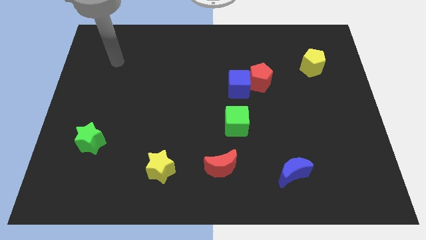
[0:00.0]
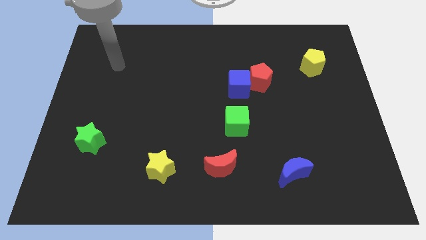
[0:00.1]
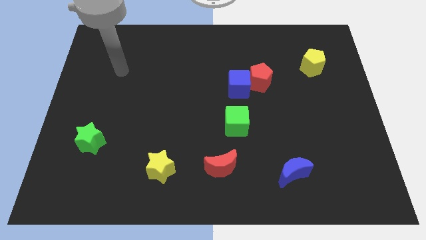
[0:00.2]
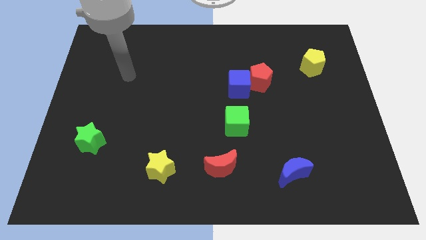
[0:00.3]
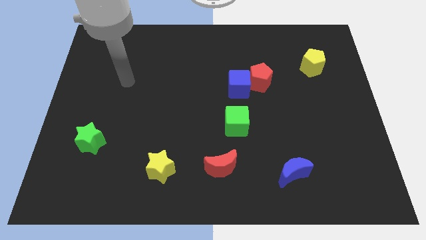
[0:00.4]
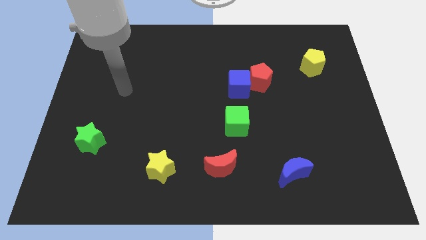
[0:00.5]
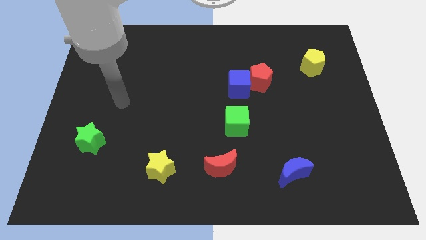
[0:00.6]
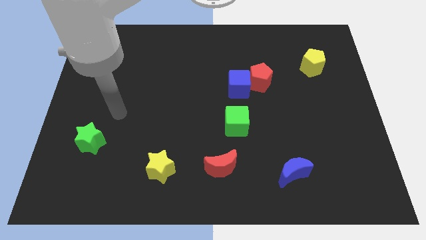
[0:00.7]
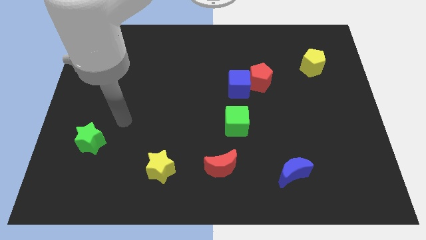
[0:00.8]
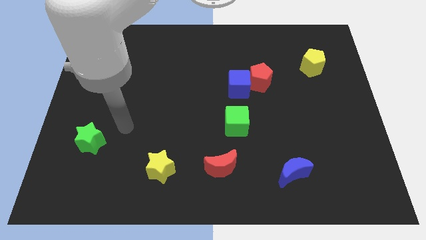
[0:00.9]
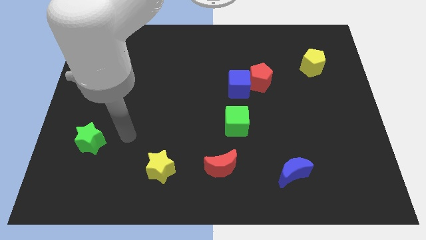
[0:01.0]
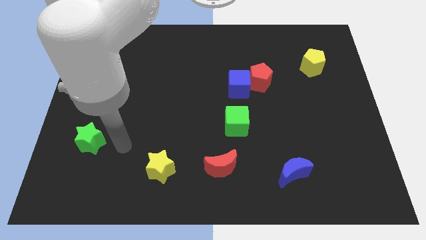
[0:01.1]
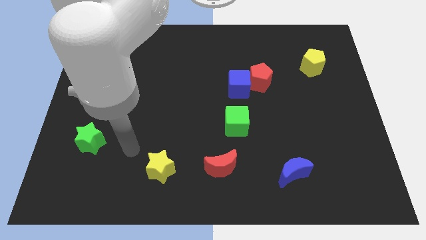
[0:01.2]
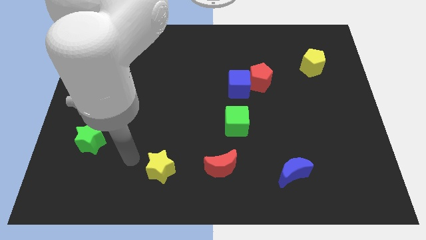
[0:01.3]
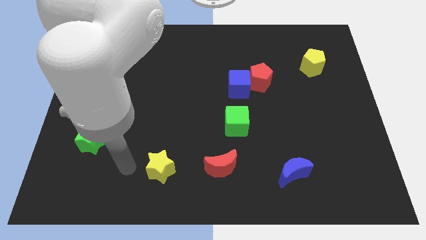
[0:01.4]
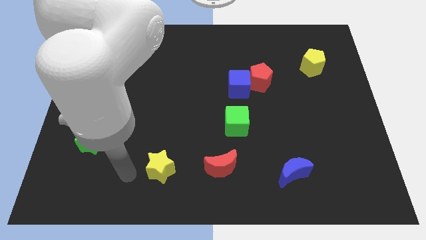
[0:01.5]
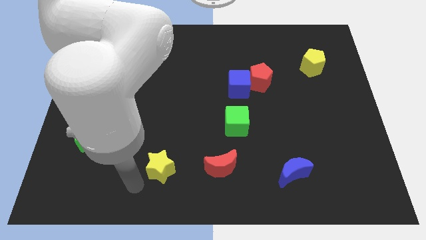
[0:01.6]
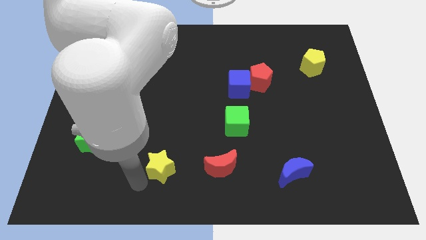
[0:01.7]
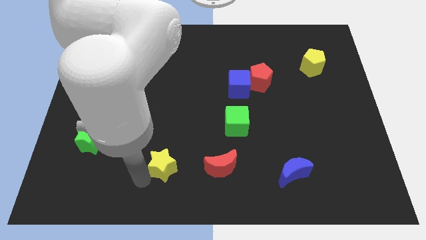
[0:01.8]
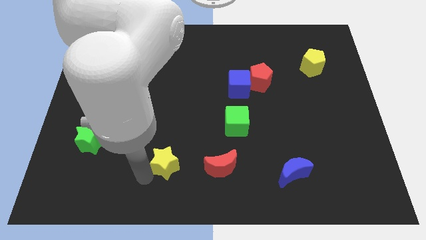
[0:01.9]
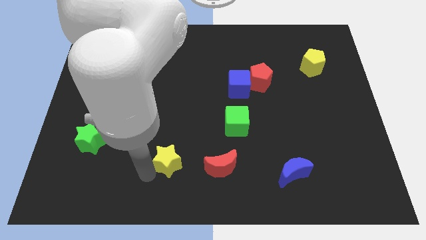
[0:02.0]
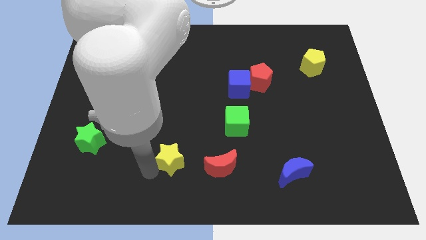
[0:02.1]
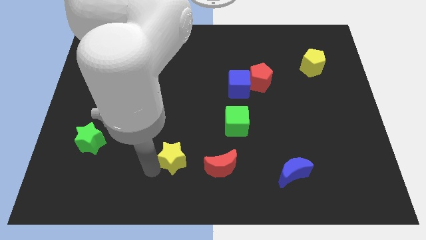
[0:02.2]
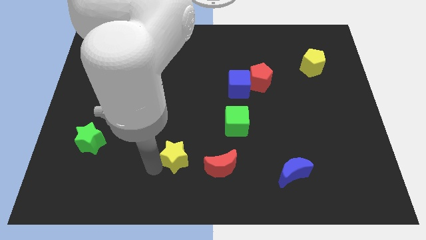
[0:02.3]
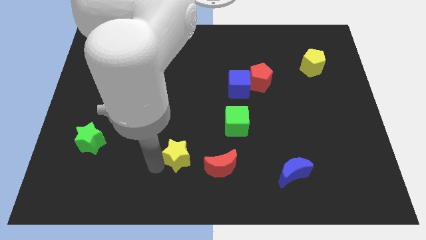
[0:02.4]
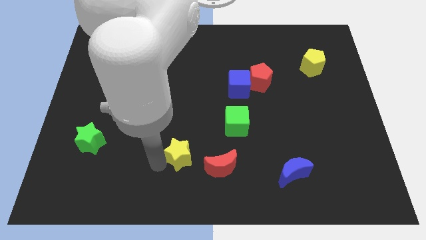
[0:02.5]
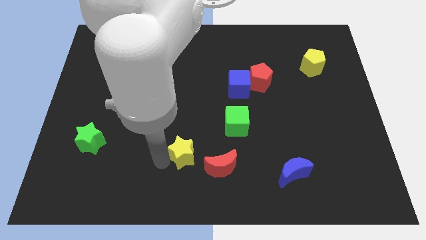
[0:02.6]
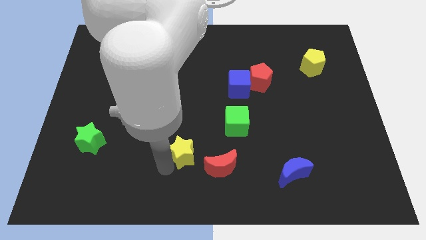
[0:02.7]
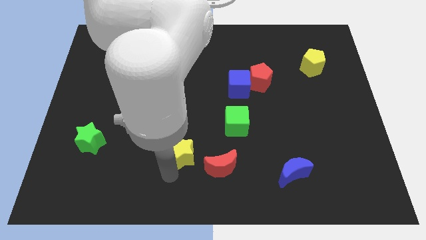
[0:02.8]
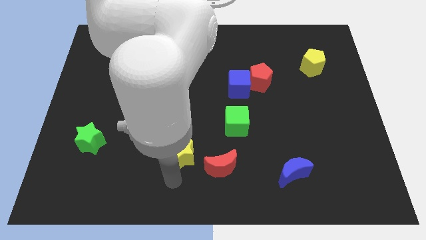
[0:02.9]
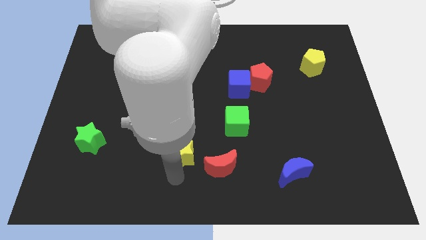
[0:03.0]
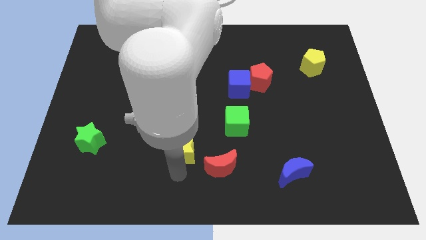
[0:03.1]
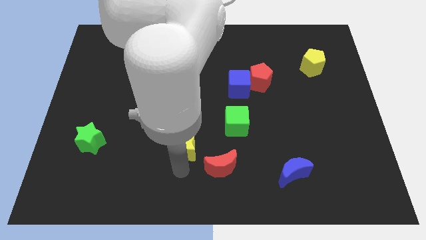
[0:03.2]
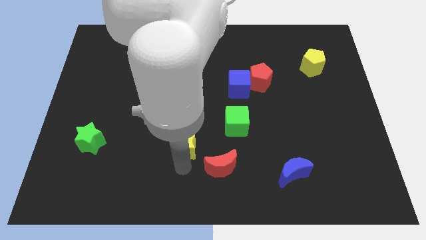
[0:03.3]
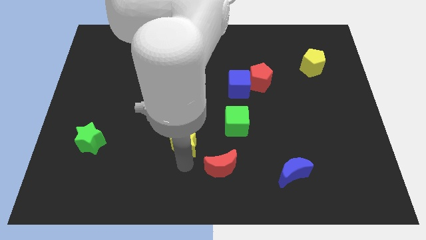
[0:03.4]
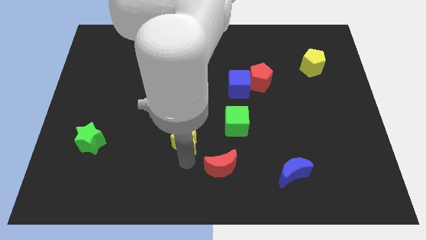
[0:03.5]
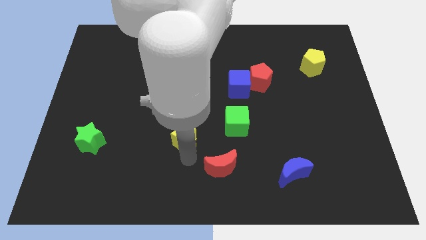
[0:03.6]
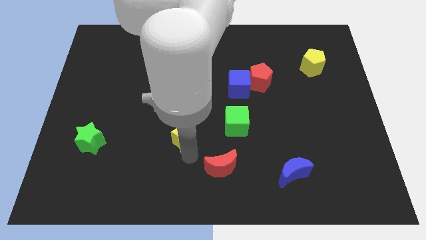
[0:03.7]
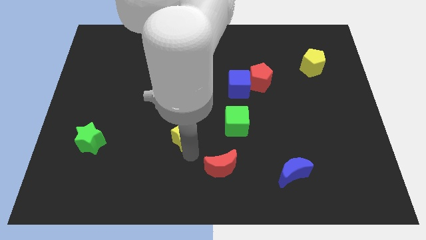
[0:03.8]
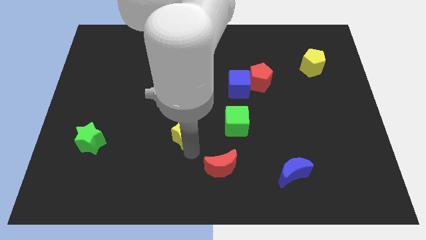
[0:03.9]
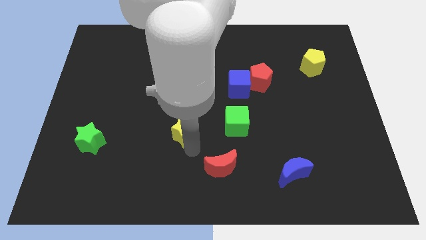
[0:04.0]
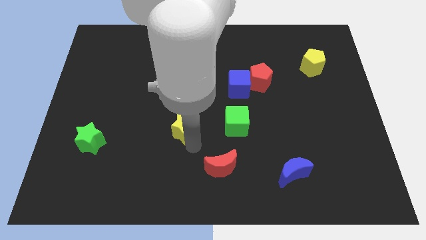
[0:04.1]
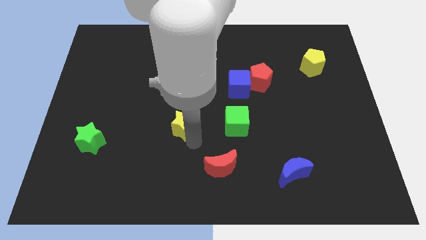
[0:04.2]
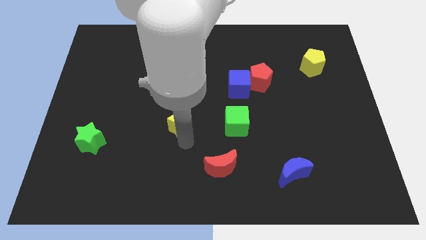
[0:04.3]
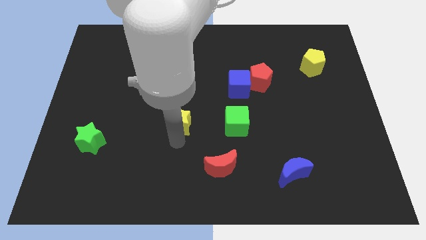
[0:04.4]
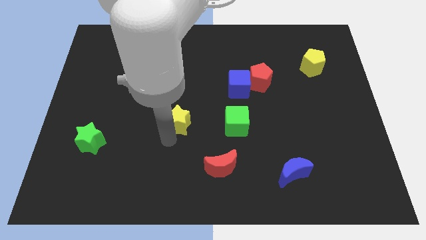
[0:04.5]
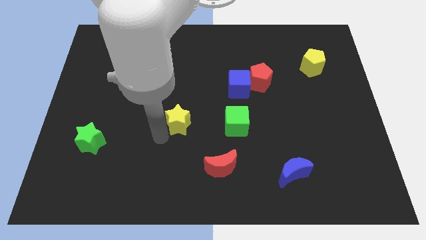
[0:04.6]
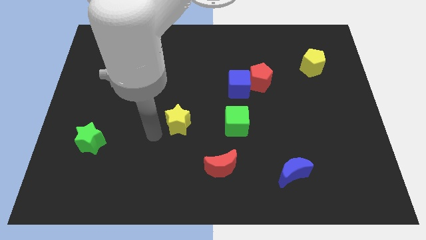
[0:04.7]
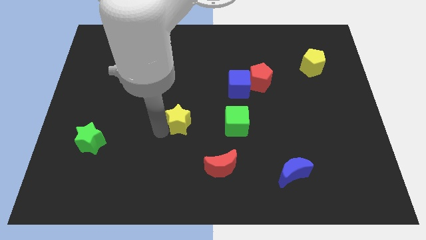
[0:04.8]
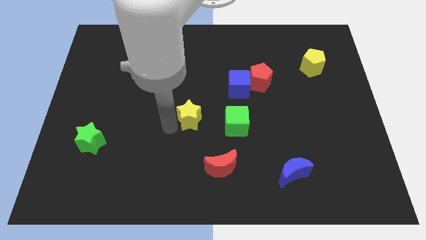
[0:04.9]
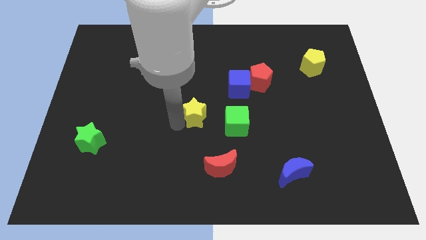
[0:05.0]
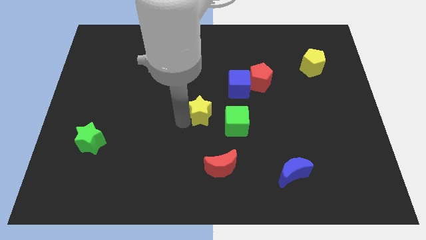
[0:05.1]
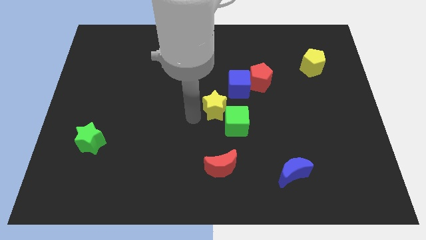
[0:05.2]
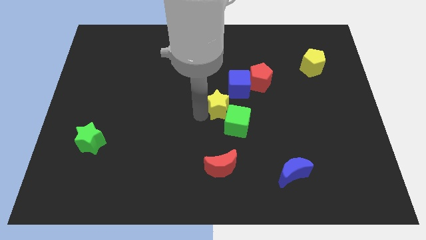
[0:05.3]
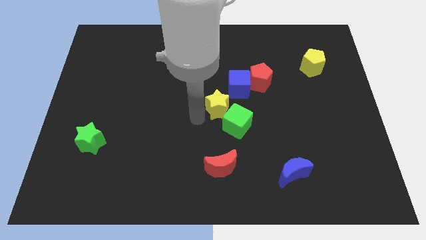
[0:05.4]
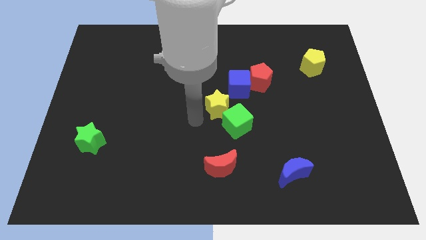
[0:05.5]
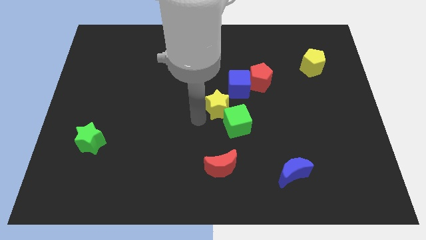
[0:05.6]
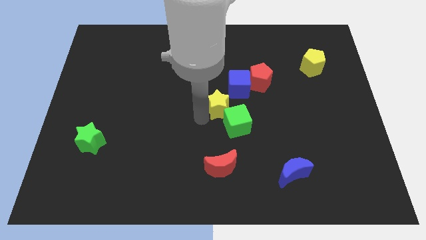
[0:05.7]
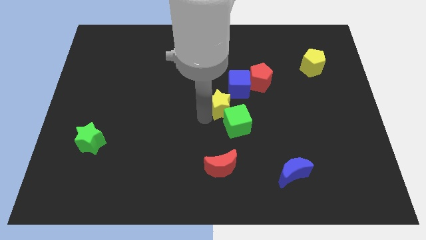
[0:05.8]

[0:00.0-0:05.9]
slide the yellow star to the bottom left side of the red pentagon
